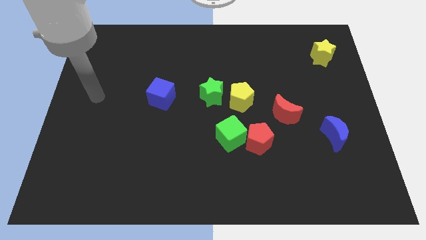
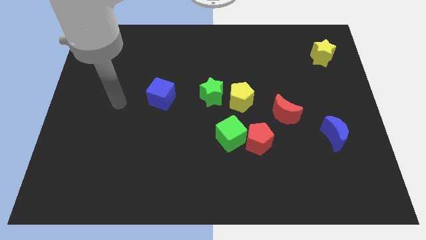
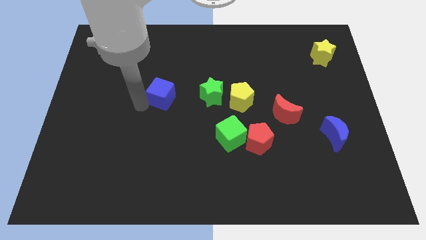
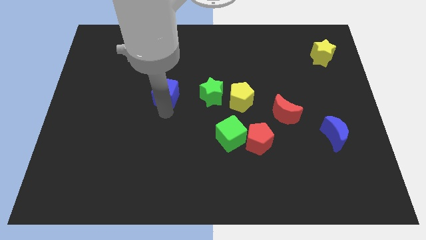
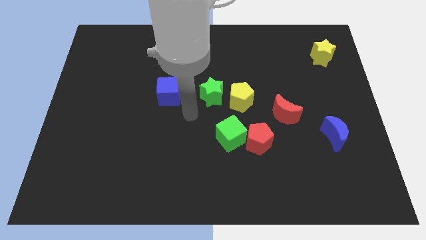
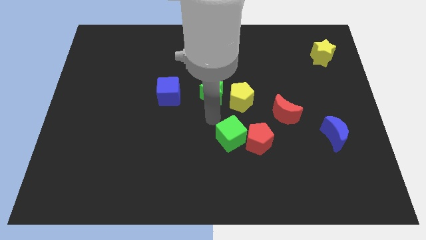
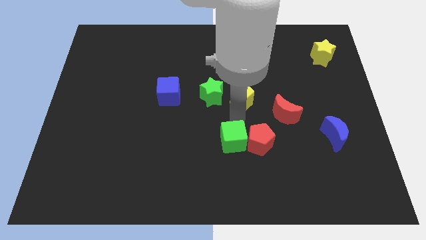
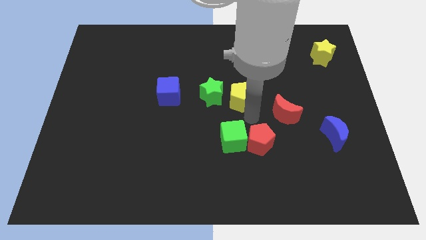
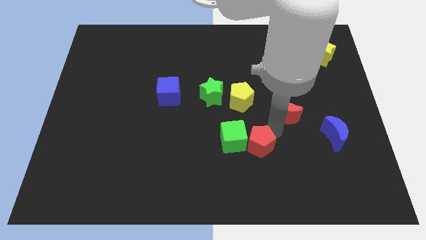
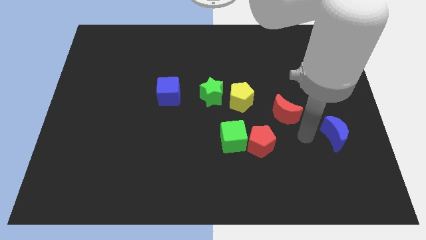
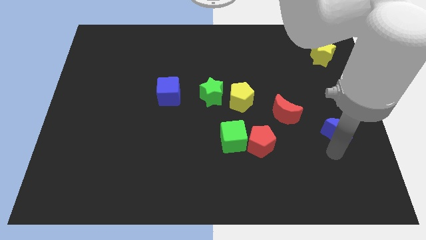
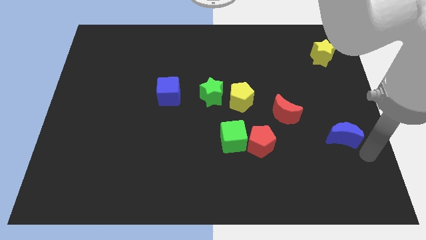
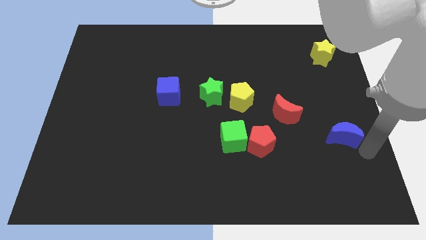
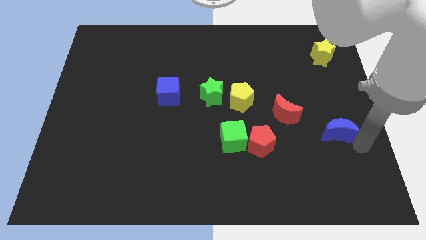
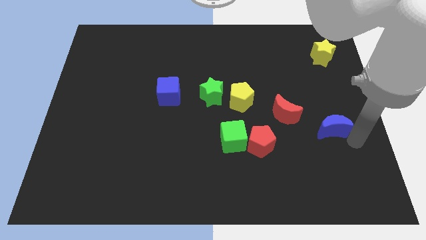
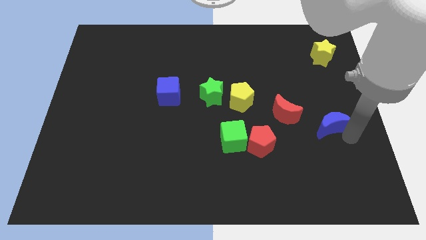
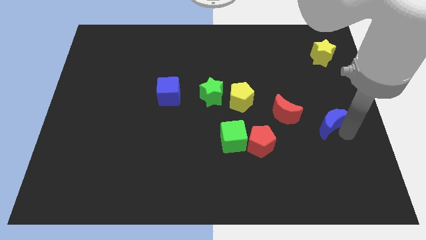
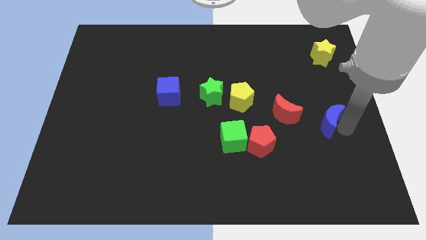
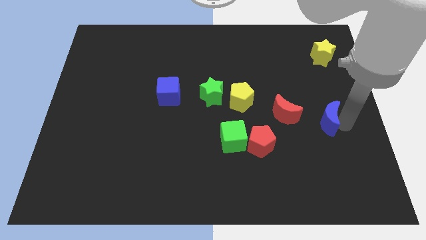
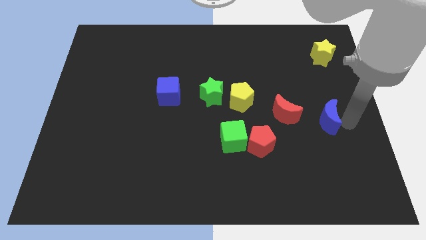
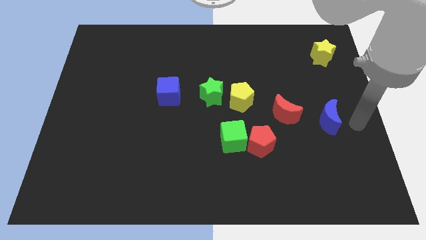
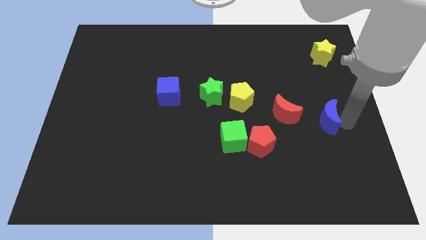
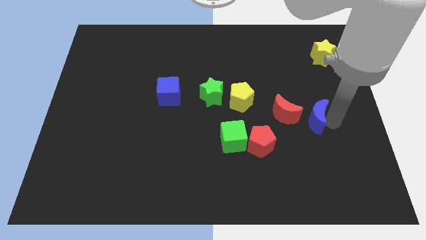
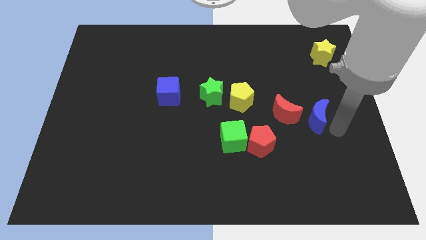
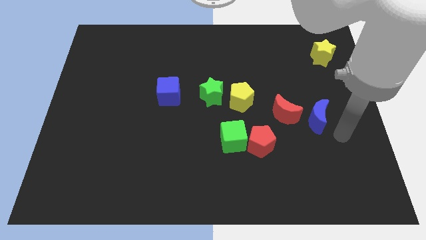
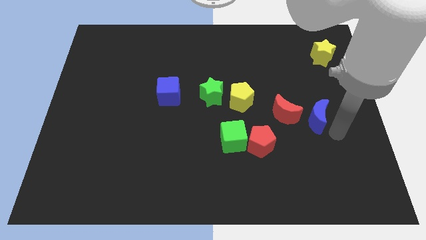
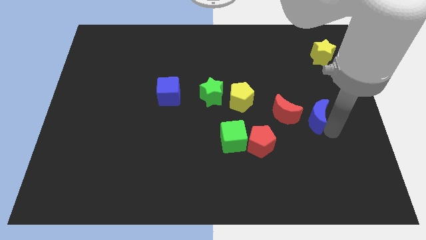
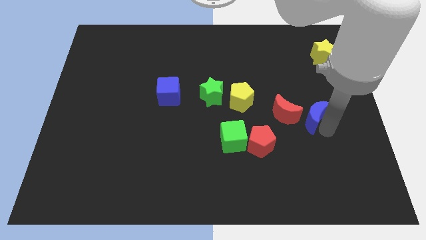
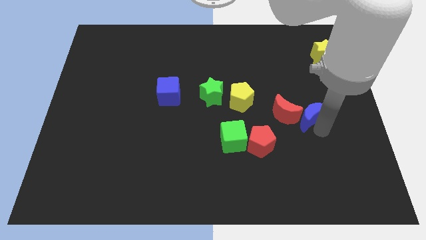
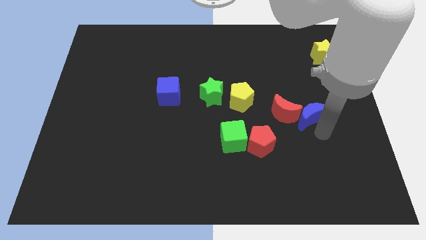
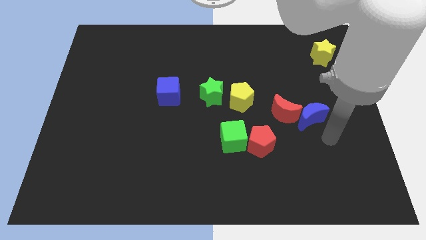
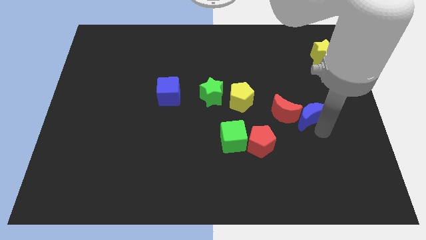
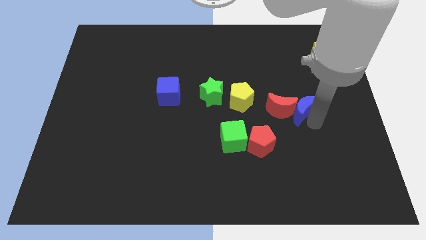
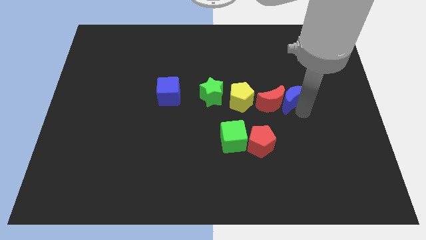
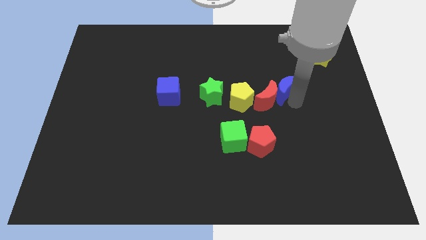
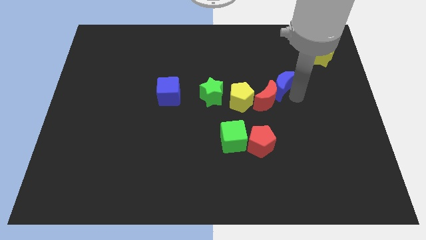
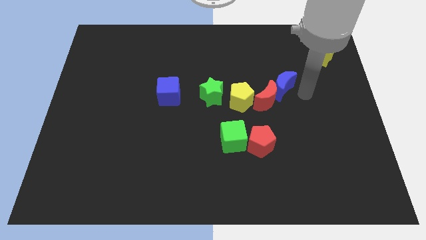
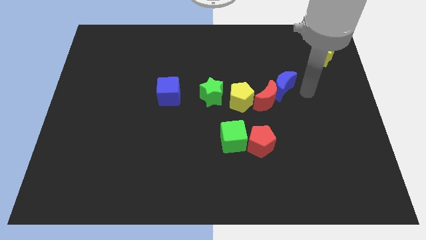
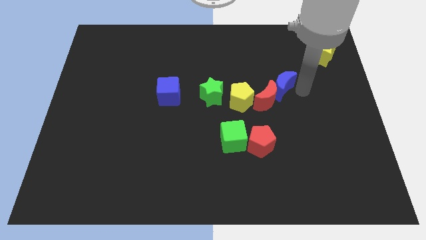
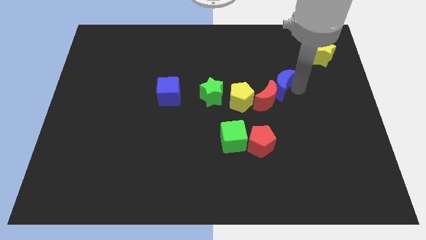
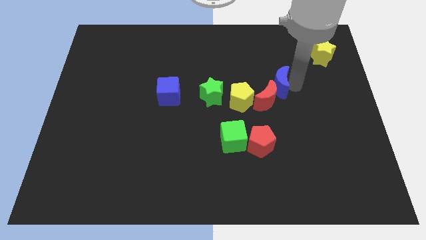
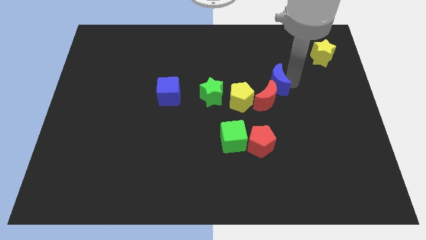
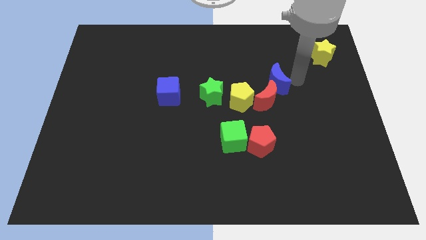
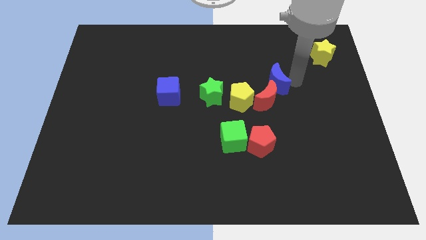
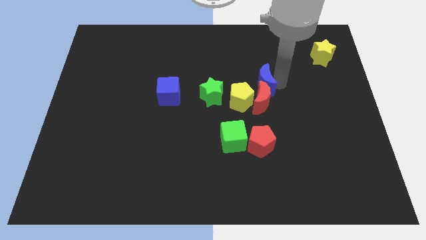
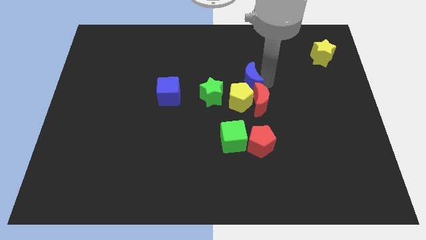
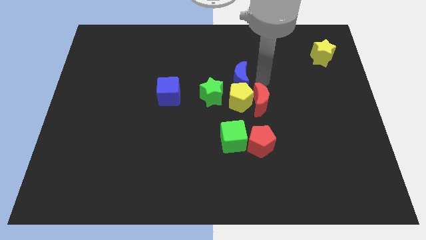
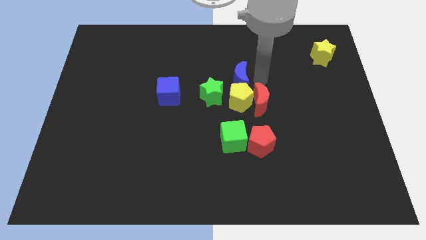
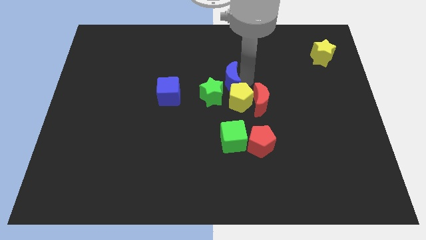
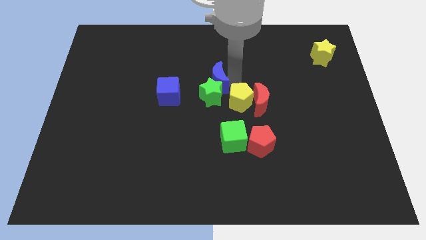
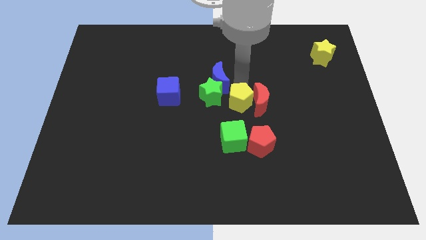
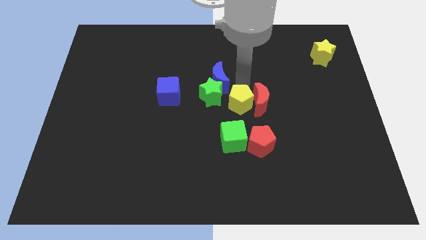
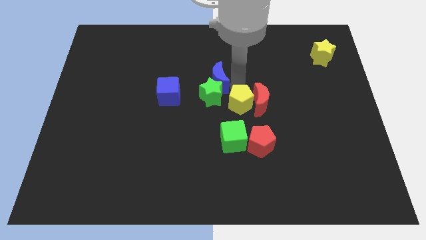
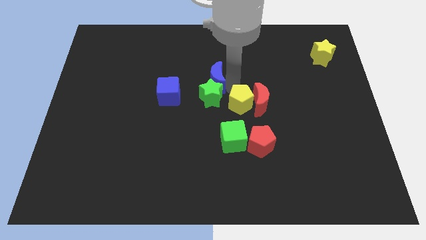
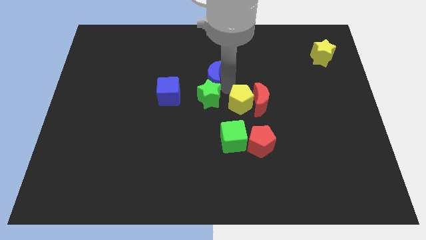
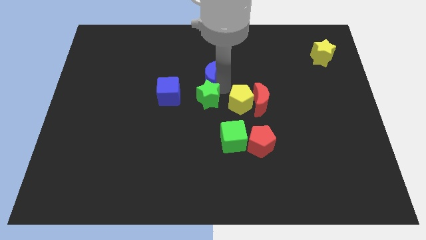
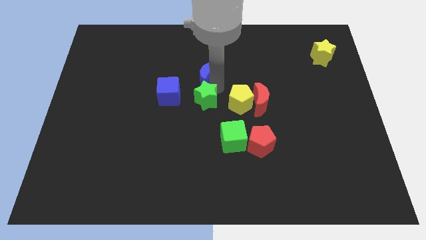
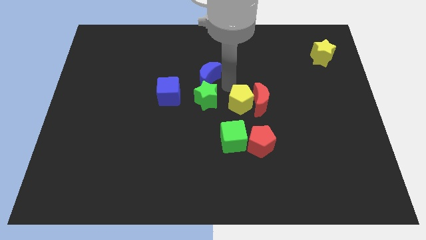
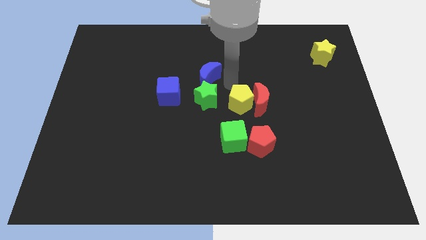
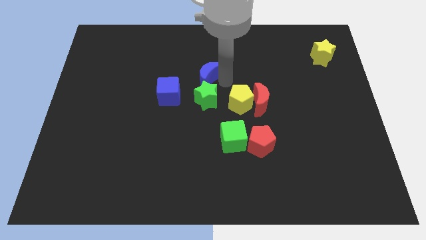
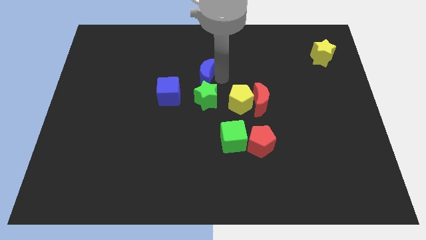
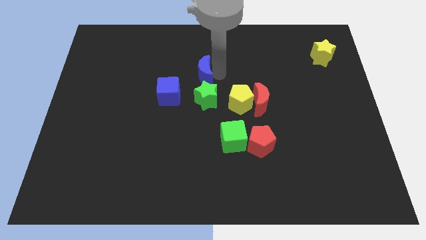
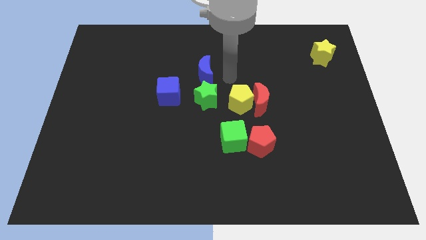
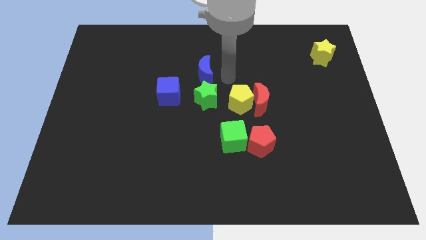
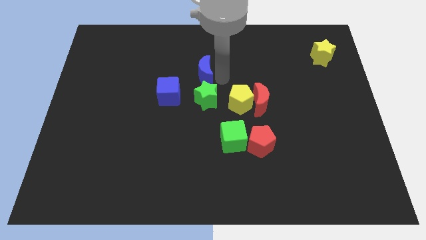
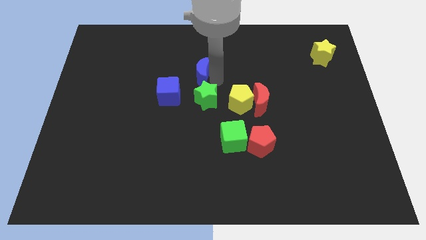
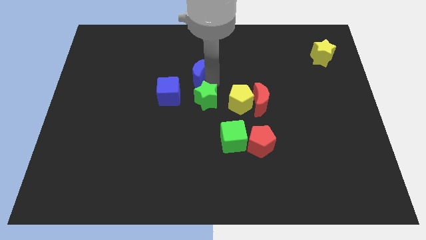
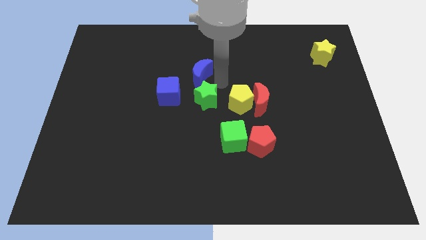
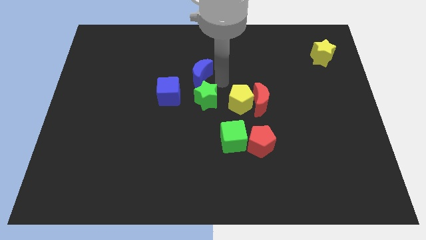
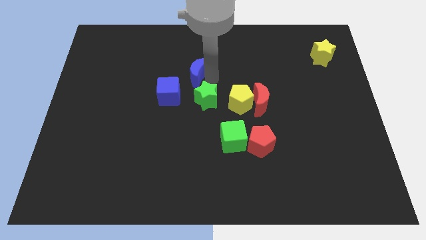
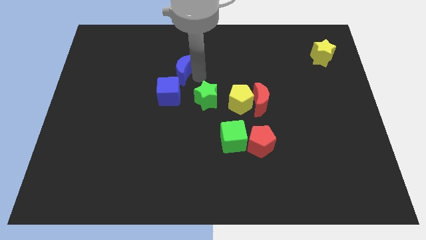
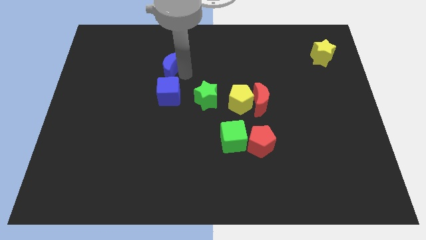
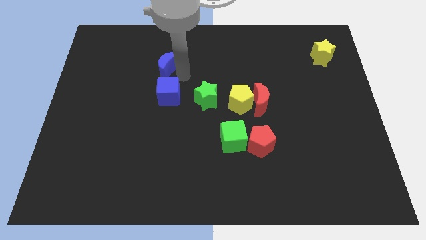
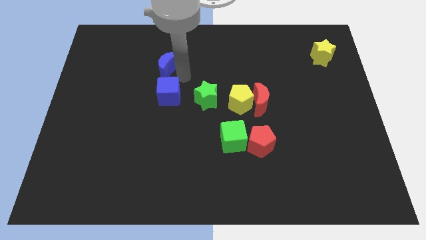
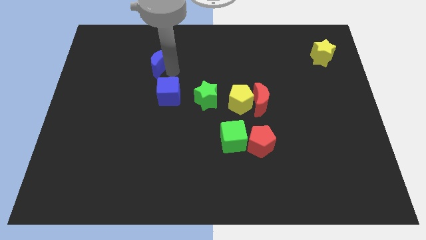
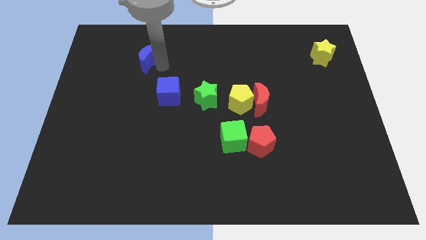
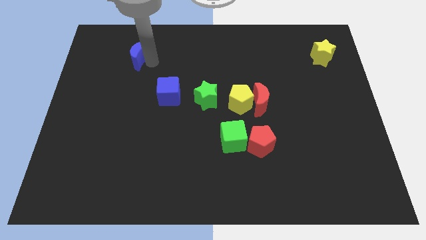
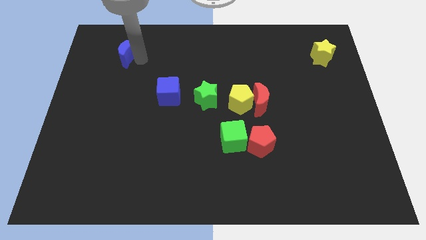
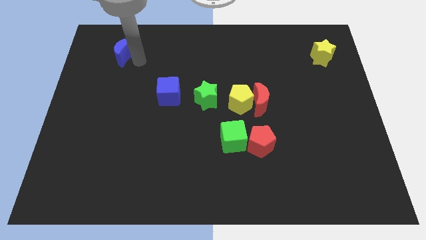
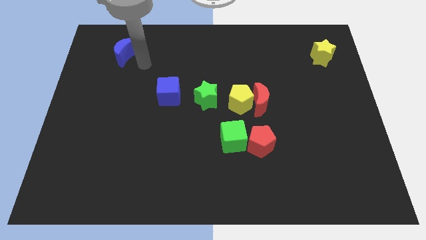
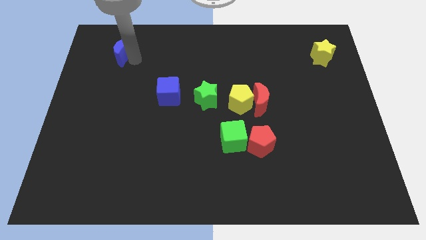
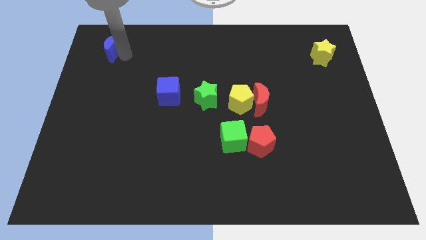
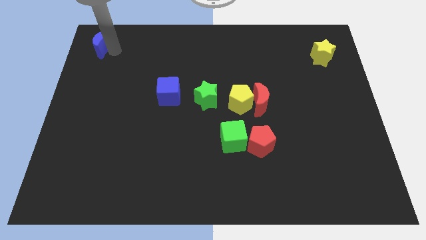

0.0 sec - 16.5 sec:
move the blue moon to the top left
